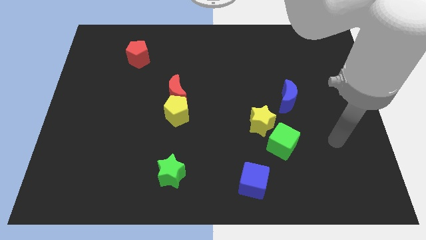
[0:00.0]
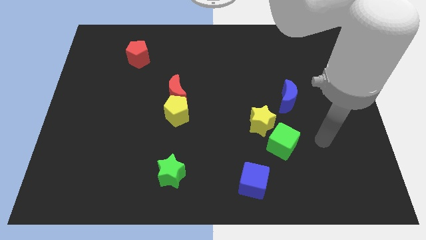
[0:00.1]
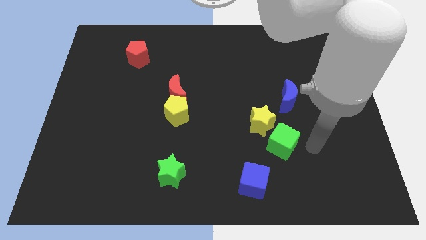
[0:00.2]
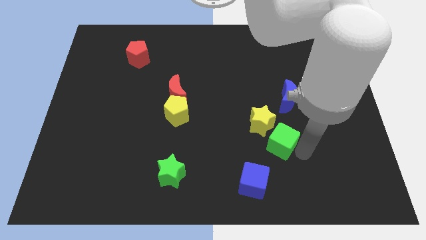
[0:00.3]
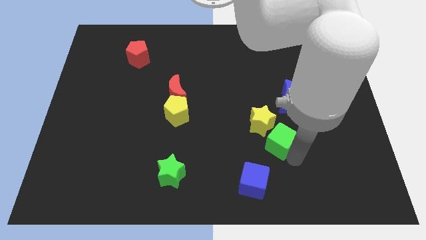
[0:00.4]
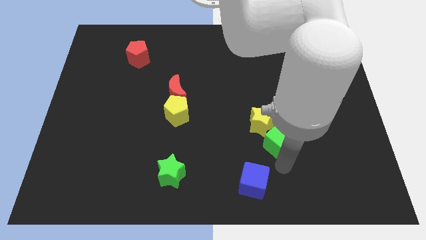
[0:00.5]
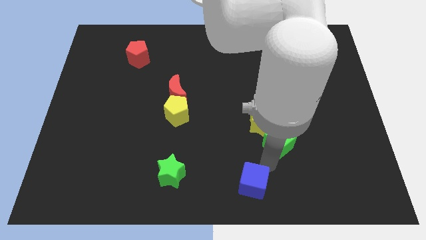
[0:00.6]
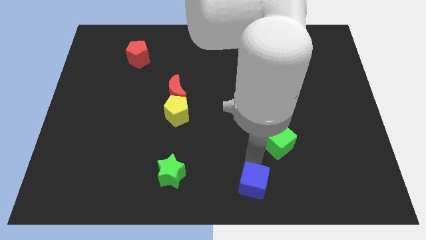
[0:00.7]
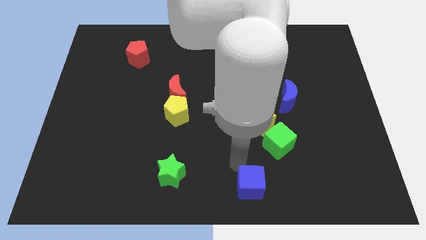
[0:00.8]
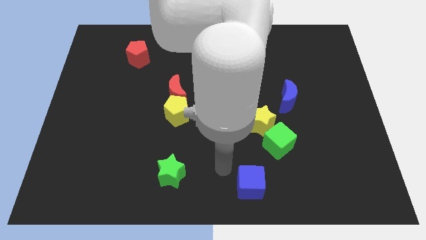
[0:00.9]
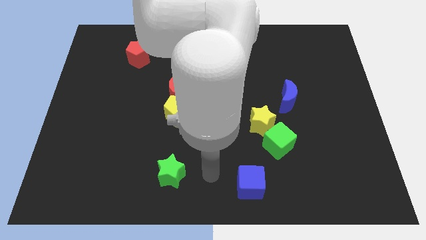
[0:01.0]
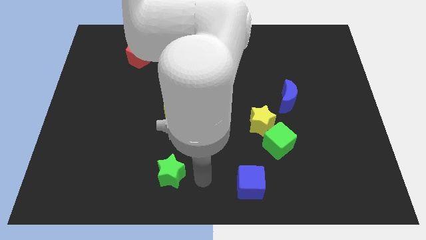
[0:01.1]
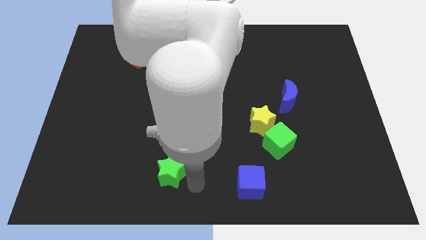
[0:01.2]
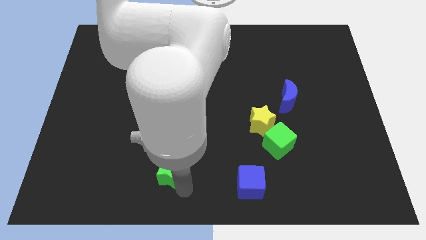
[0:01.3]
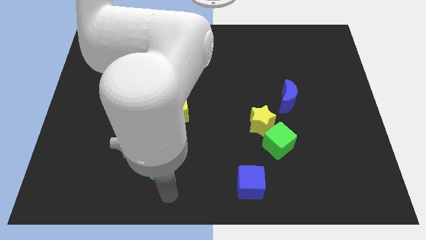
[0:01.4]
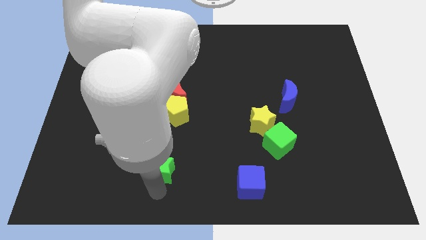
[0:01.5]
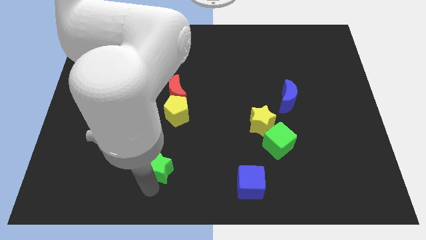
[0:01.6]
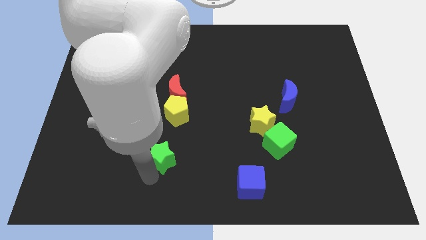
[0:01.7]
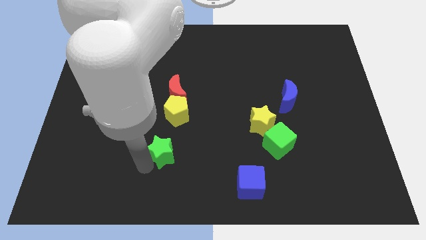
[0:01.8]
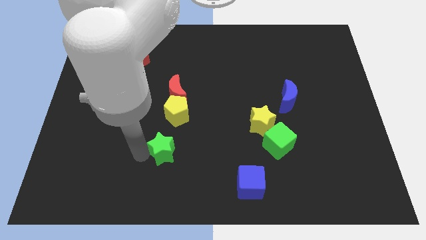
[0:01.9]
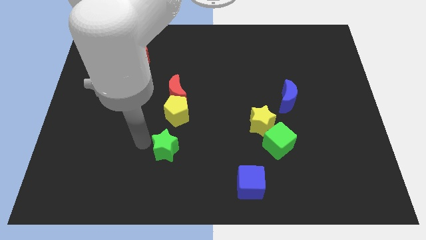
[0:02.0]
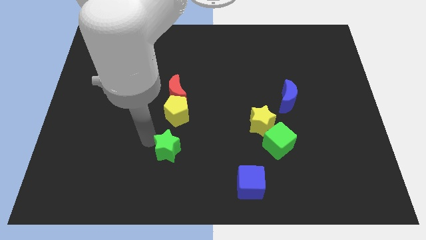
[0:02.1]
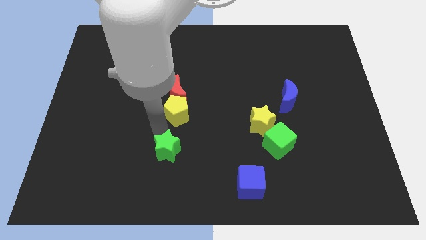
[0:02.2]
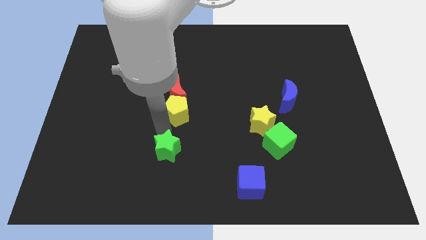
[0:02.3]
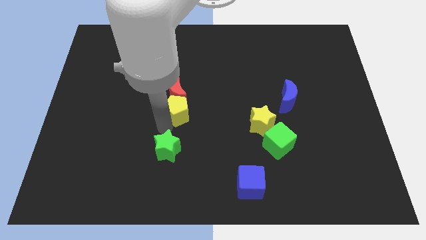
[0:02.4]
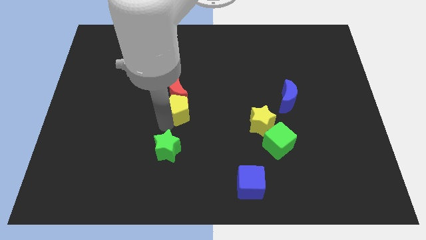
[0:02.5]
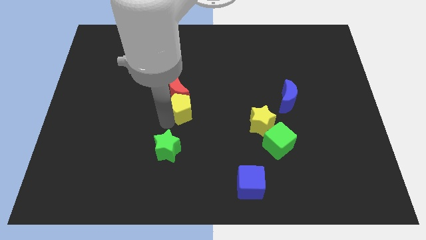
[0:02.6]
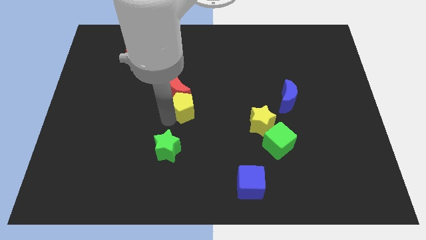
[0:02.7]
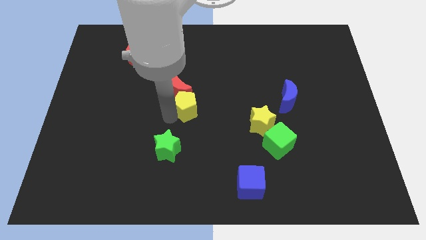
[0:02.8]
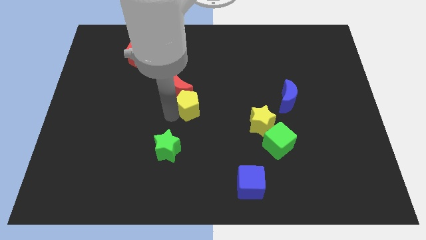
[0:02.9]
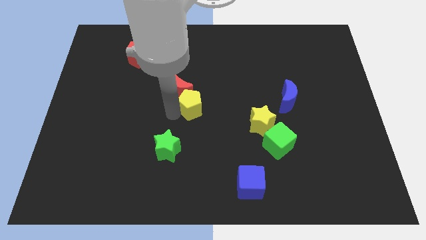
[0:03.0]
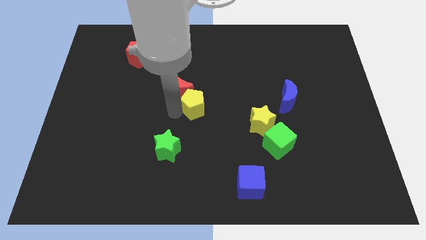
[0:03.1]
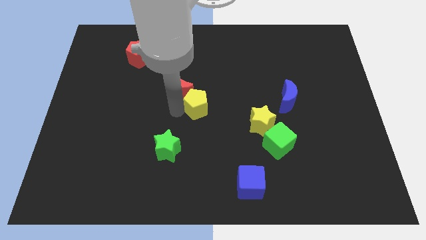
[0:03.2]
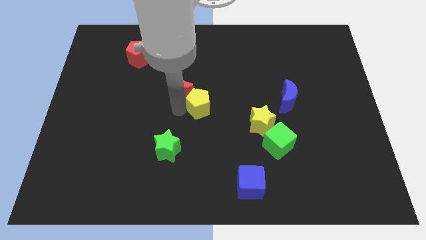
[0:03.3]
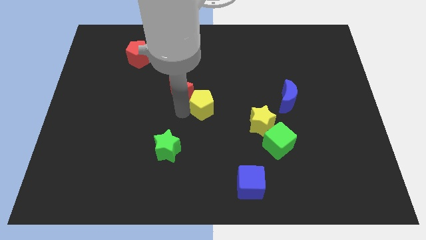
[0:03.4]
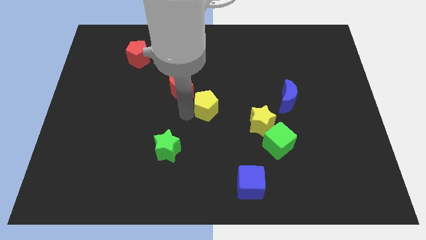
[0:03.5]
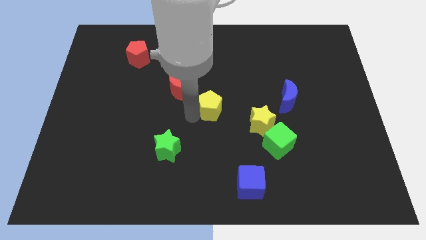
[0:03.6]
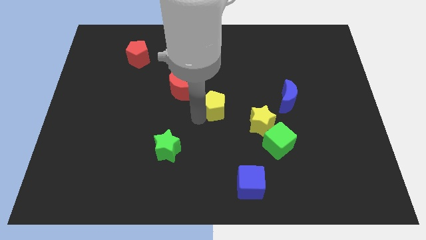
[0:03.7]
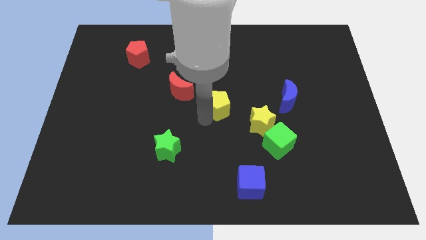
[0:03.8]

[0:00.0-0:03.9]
push the yellow pentagon a little up and then right

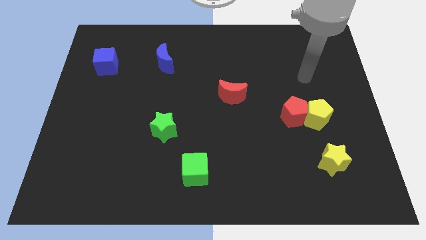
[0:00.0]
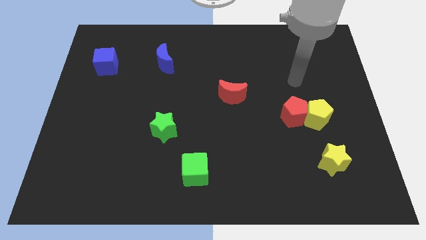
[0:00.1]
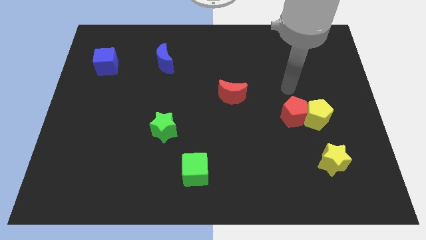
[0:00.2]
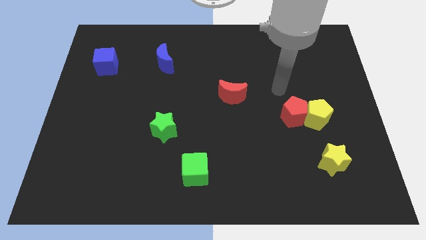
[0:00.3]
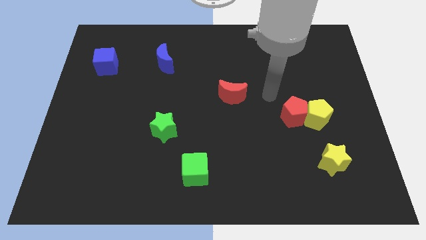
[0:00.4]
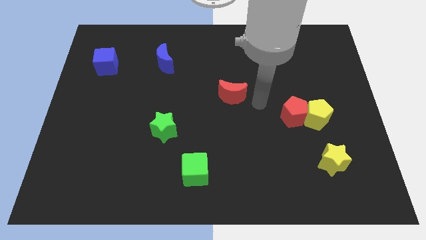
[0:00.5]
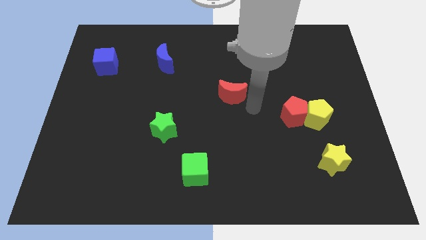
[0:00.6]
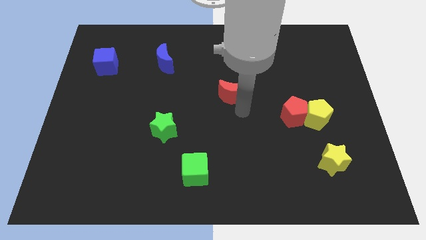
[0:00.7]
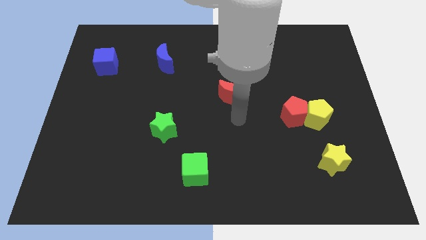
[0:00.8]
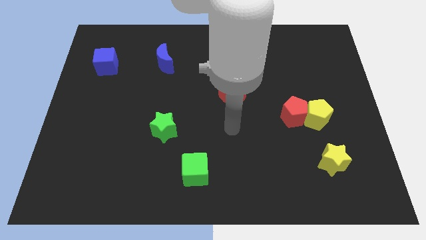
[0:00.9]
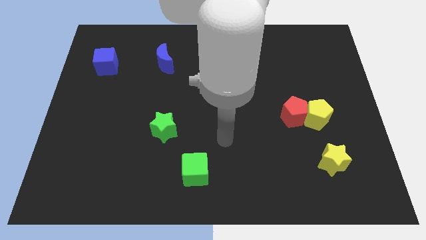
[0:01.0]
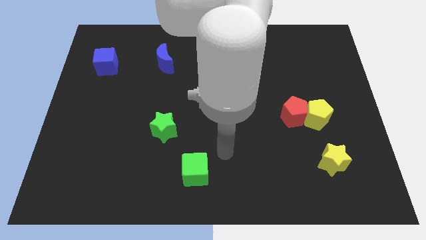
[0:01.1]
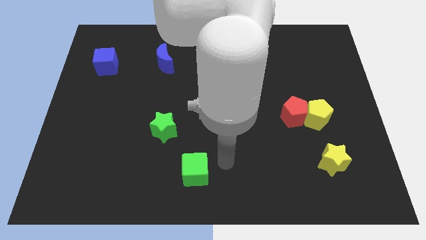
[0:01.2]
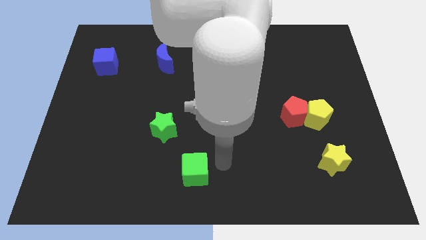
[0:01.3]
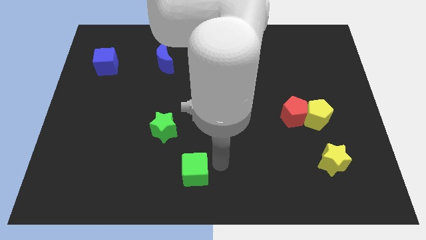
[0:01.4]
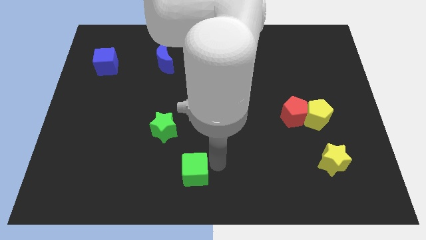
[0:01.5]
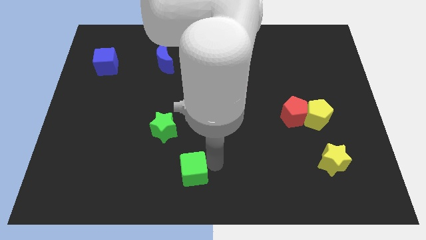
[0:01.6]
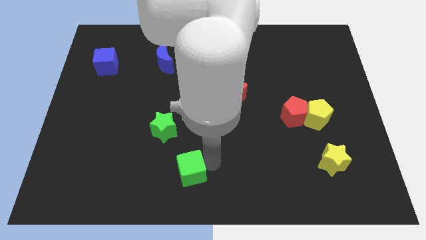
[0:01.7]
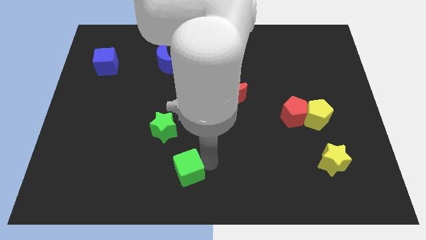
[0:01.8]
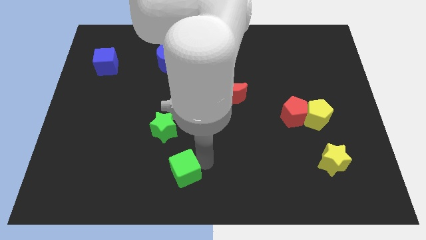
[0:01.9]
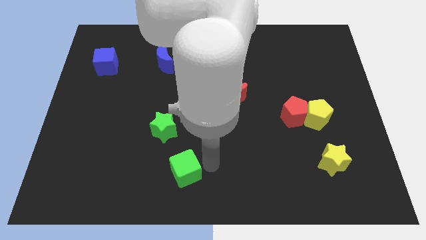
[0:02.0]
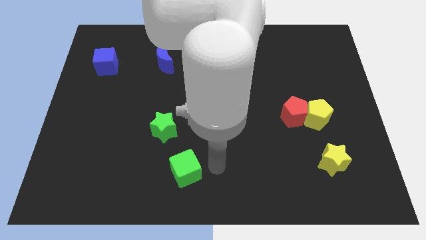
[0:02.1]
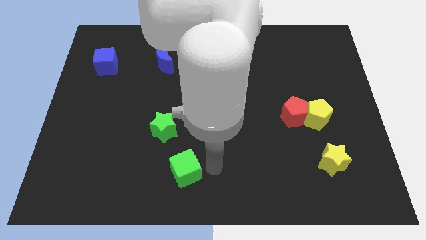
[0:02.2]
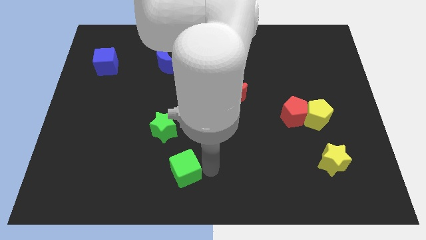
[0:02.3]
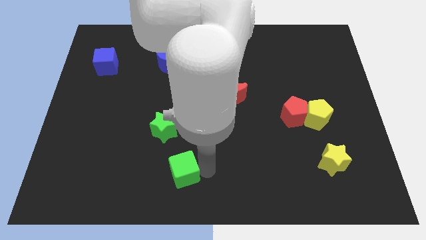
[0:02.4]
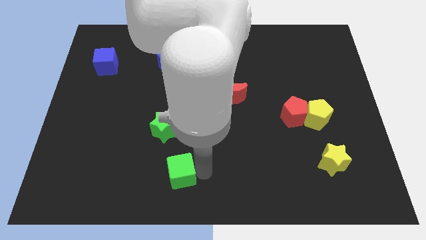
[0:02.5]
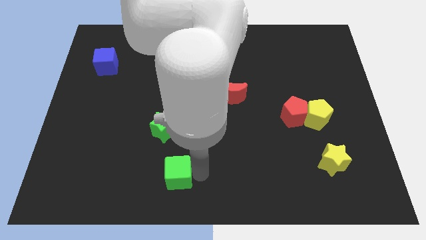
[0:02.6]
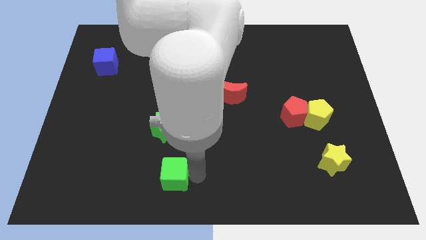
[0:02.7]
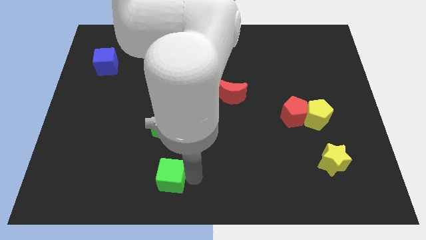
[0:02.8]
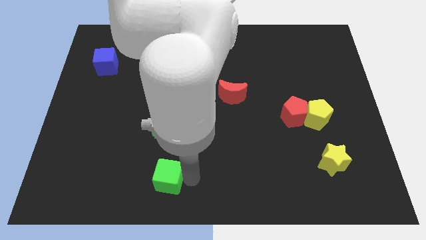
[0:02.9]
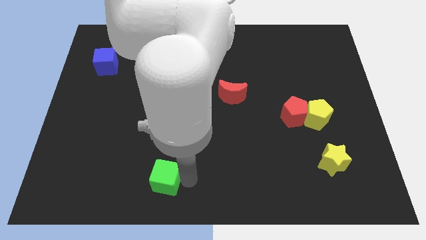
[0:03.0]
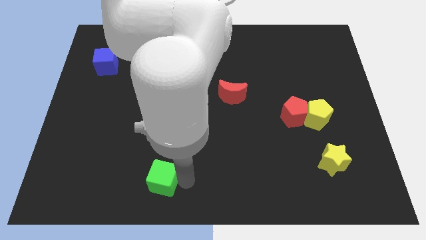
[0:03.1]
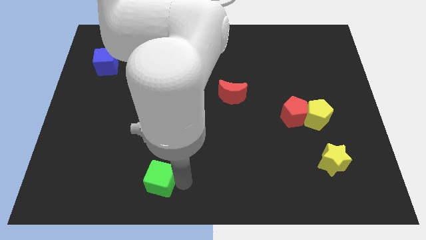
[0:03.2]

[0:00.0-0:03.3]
move the green cube to the left a little bit

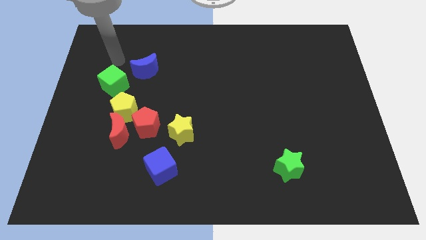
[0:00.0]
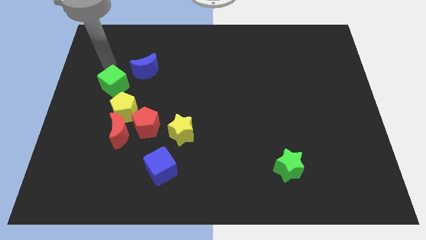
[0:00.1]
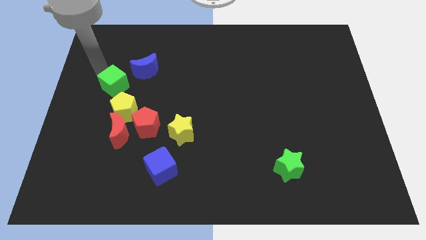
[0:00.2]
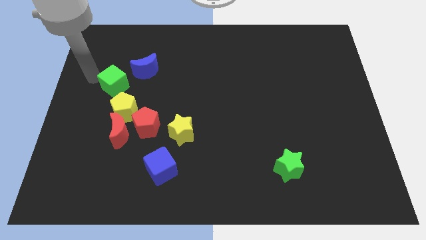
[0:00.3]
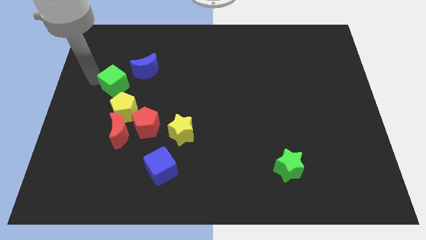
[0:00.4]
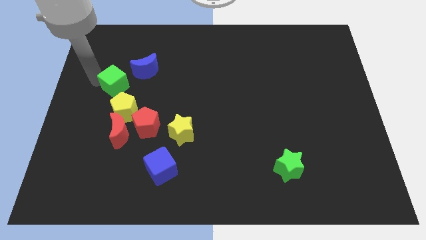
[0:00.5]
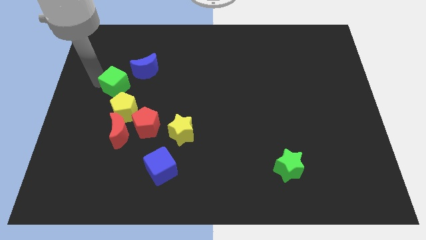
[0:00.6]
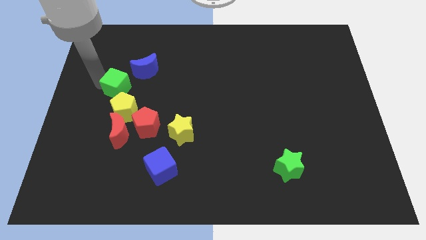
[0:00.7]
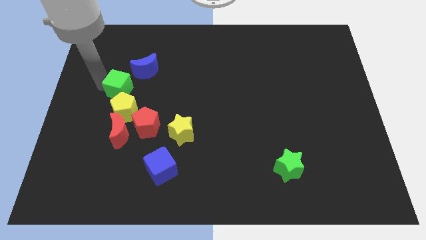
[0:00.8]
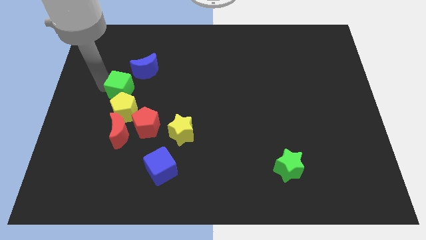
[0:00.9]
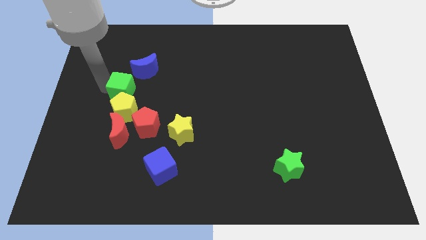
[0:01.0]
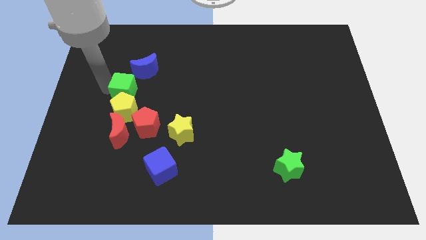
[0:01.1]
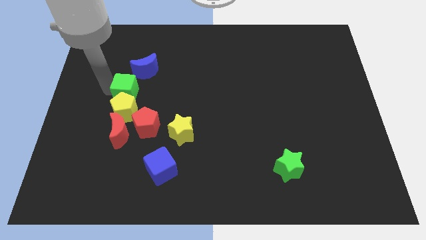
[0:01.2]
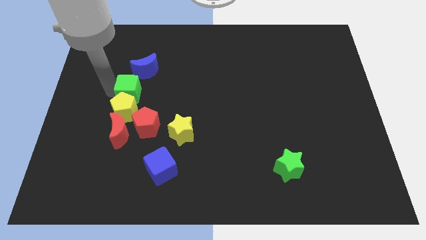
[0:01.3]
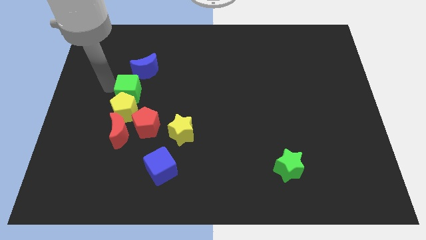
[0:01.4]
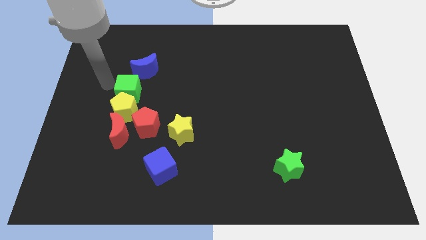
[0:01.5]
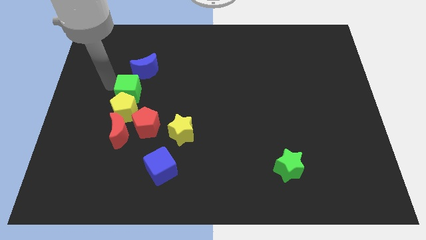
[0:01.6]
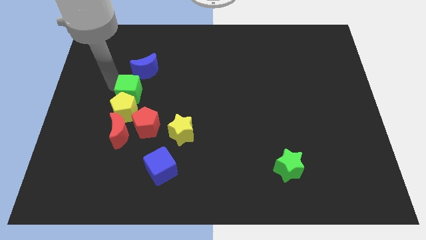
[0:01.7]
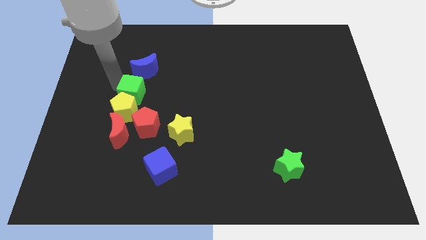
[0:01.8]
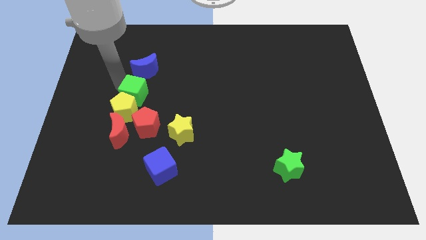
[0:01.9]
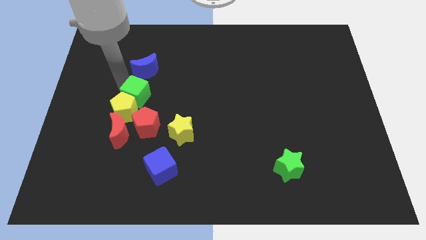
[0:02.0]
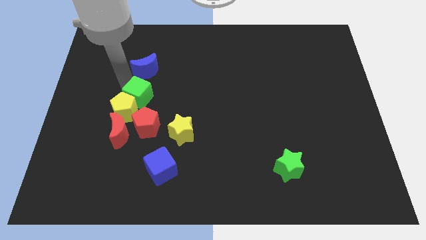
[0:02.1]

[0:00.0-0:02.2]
push the green cube down and to the right diagonally a little
